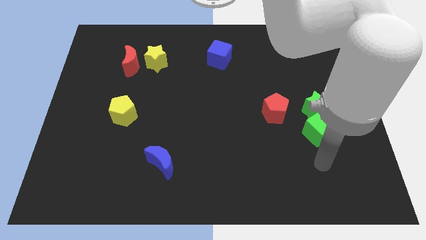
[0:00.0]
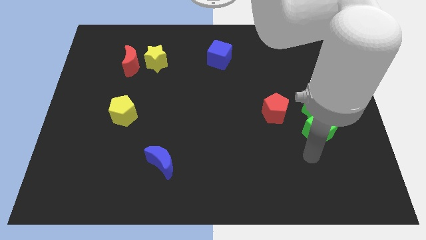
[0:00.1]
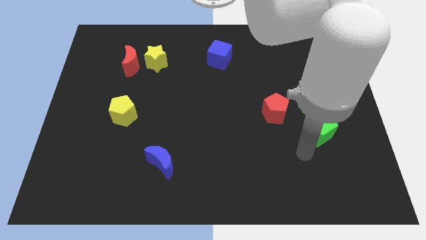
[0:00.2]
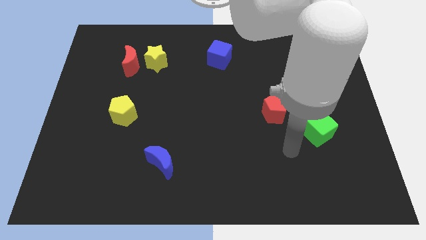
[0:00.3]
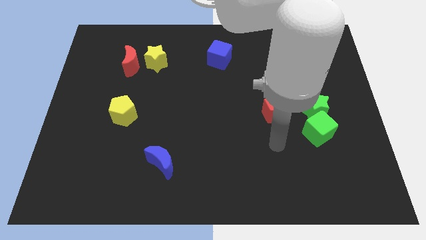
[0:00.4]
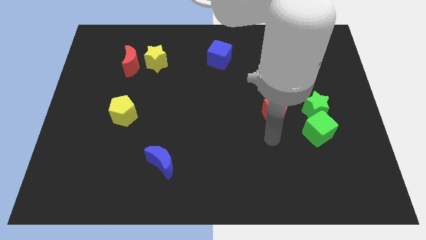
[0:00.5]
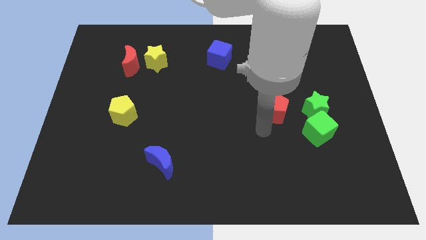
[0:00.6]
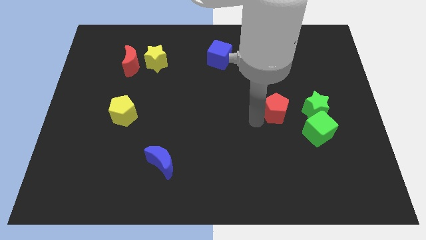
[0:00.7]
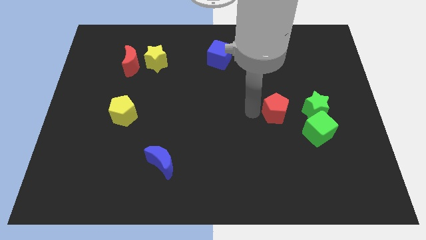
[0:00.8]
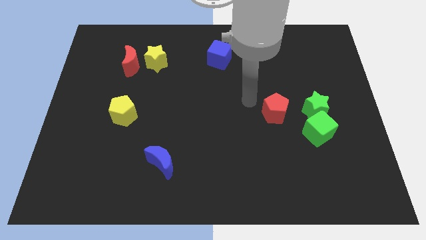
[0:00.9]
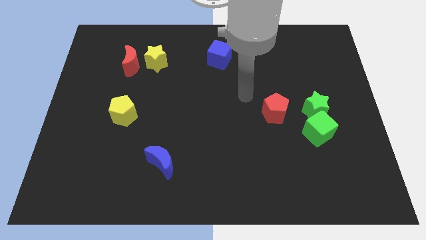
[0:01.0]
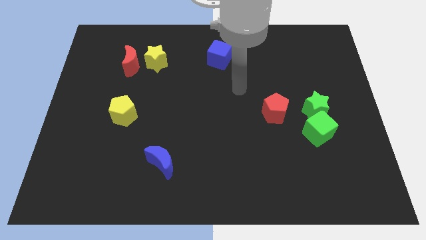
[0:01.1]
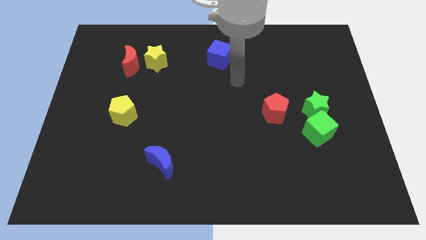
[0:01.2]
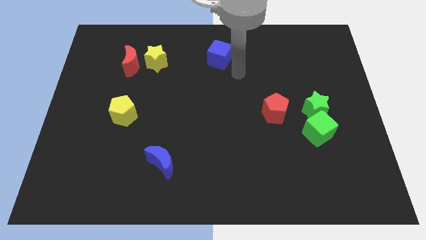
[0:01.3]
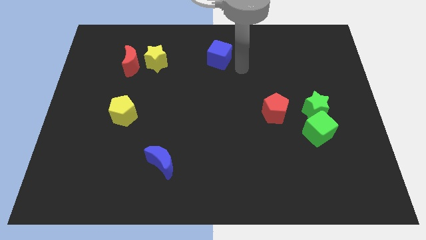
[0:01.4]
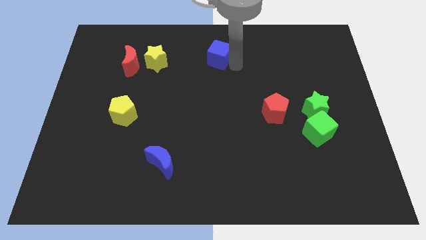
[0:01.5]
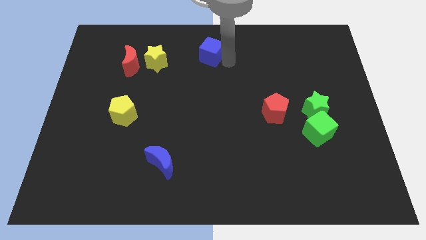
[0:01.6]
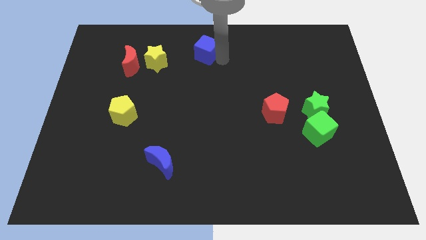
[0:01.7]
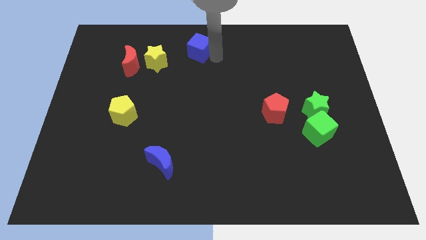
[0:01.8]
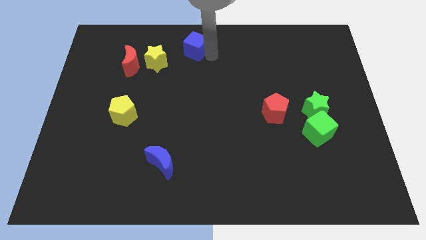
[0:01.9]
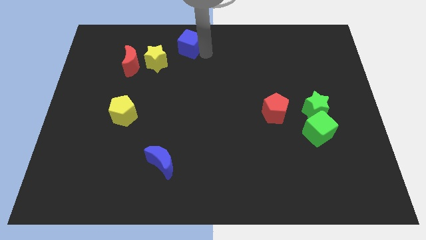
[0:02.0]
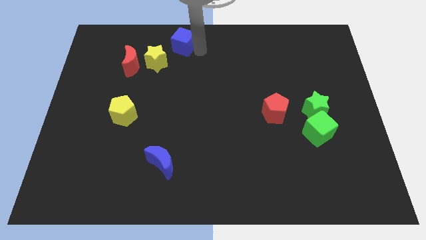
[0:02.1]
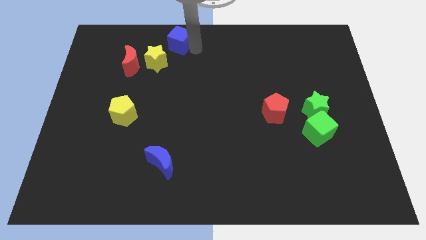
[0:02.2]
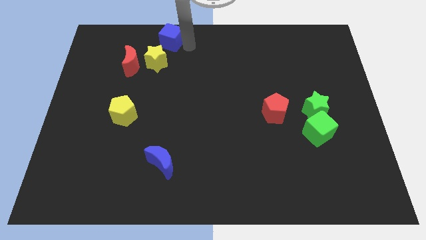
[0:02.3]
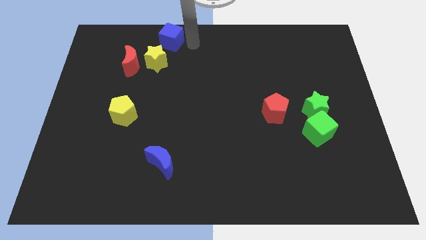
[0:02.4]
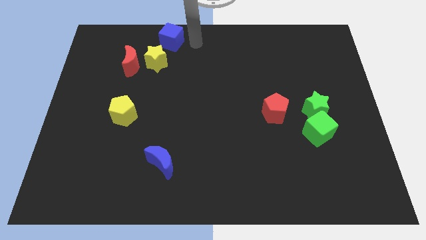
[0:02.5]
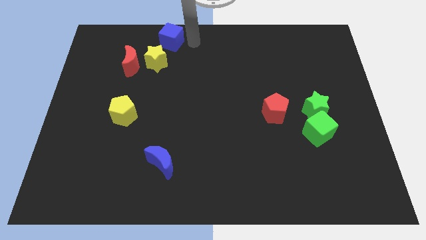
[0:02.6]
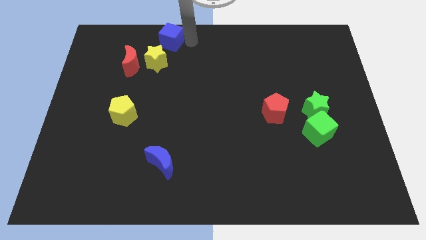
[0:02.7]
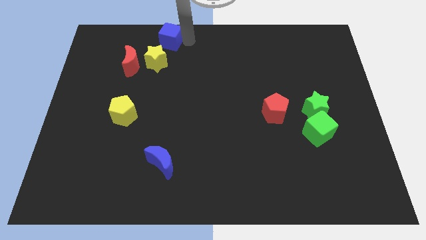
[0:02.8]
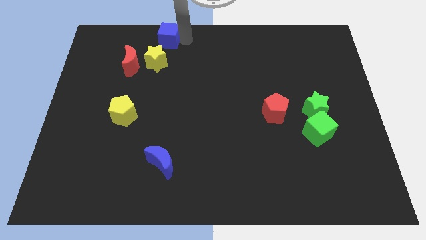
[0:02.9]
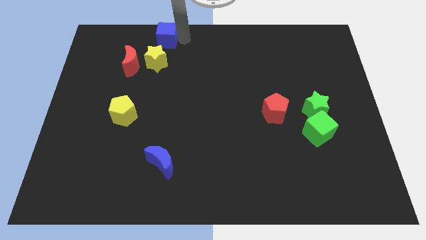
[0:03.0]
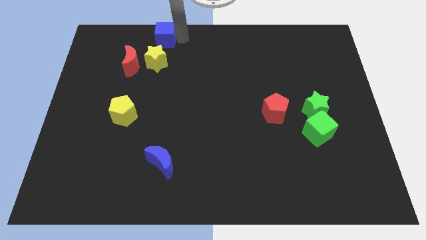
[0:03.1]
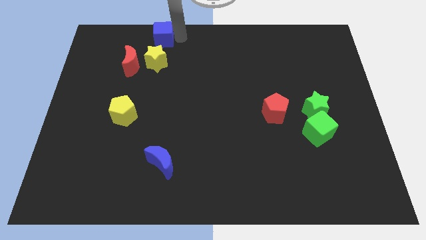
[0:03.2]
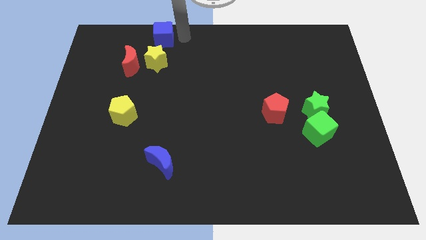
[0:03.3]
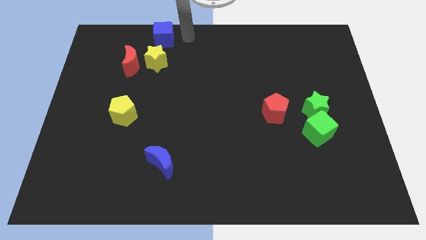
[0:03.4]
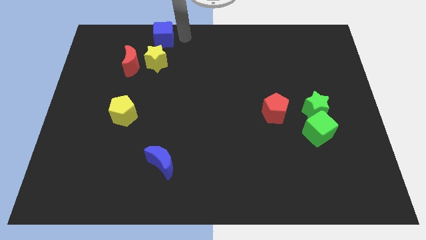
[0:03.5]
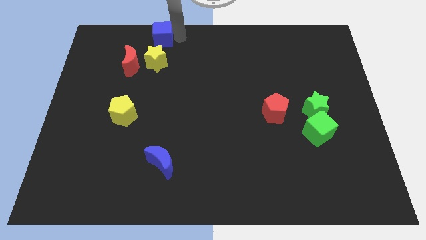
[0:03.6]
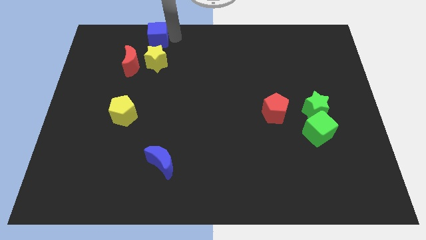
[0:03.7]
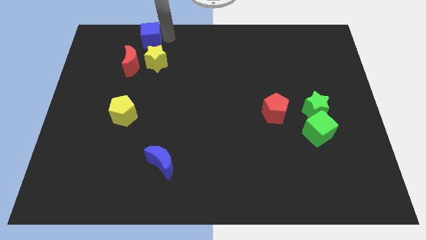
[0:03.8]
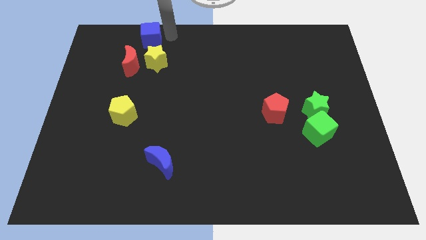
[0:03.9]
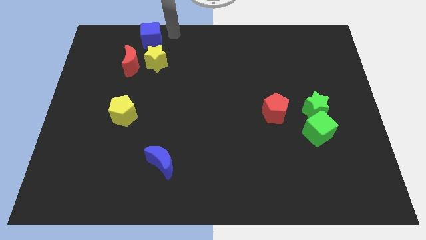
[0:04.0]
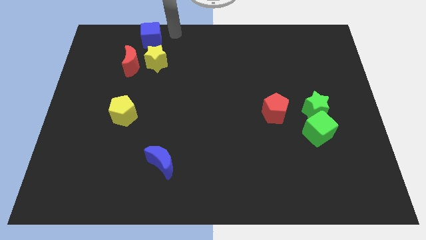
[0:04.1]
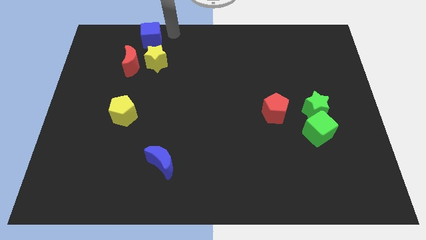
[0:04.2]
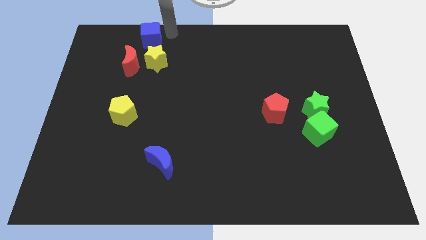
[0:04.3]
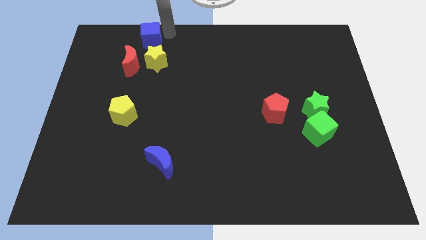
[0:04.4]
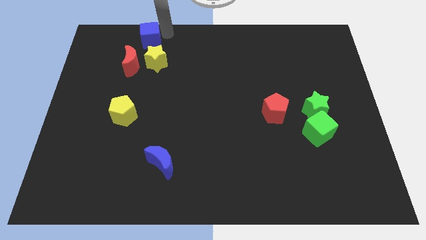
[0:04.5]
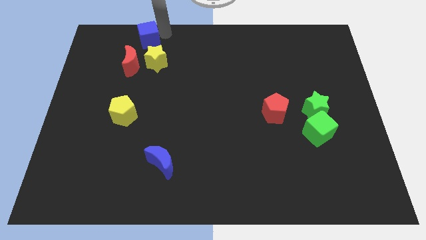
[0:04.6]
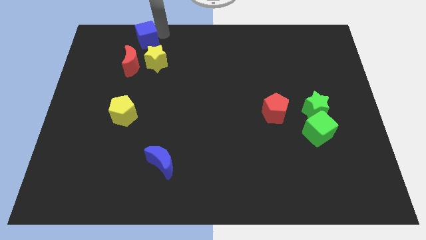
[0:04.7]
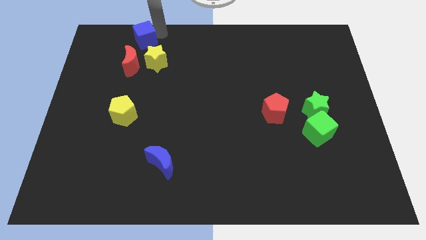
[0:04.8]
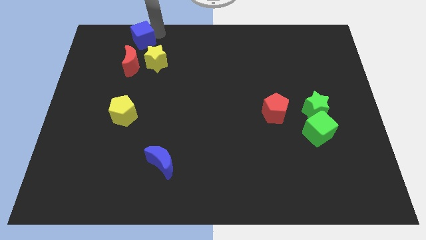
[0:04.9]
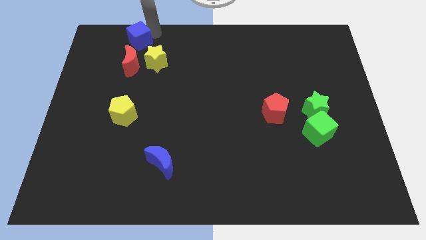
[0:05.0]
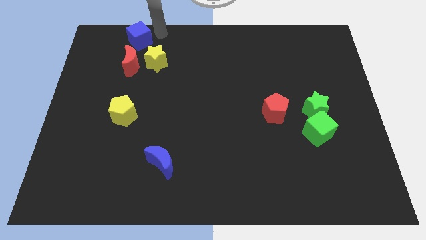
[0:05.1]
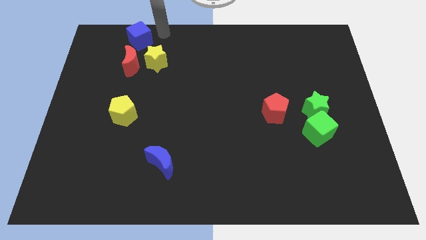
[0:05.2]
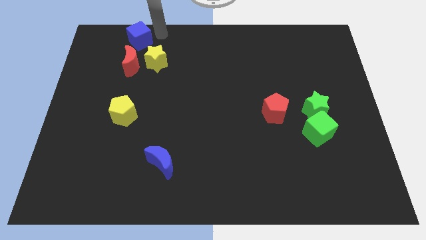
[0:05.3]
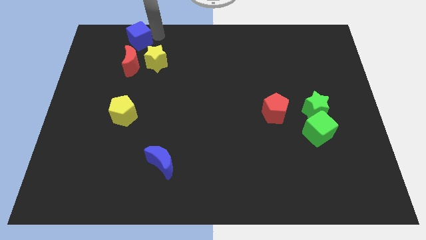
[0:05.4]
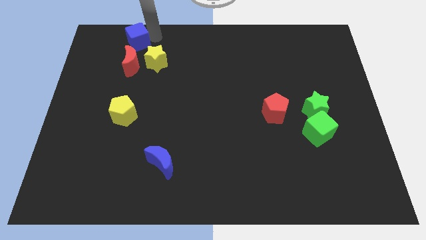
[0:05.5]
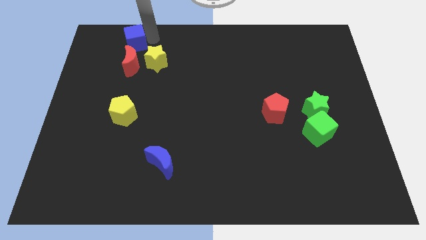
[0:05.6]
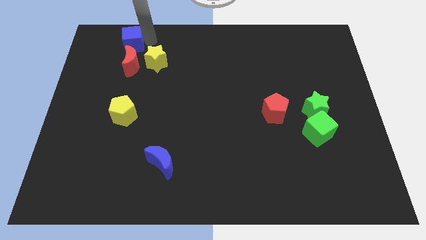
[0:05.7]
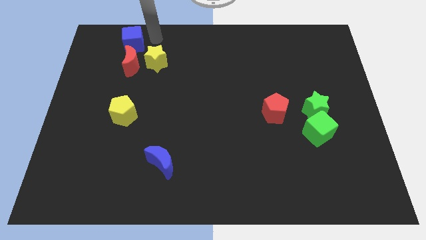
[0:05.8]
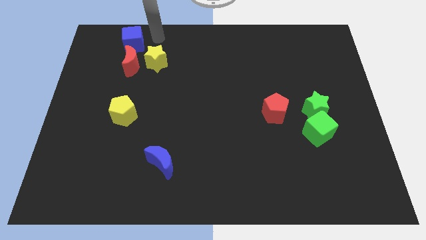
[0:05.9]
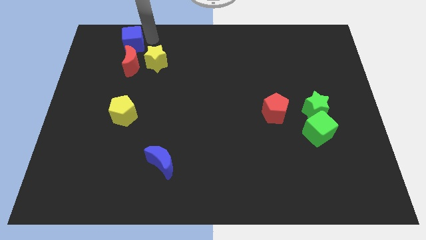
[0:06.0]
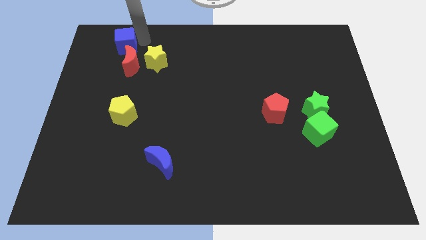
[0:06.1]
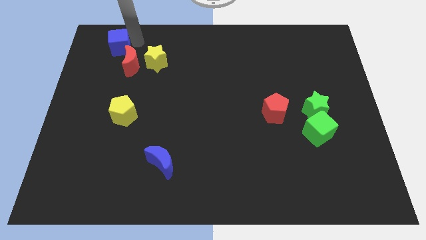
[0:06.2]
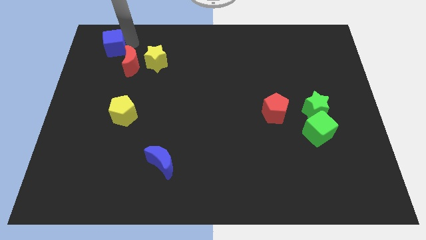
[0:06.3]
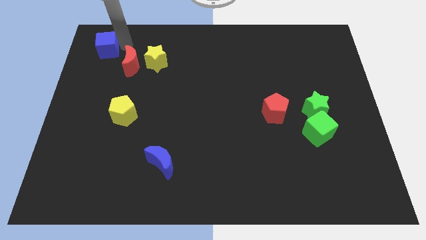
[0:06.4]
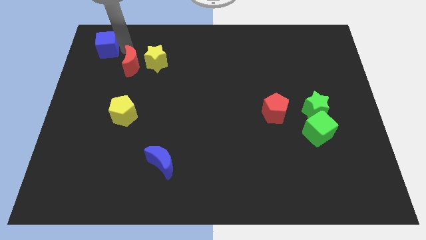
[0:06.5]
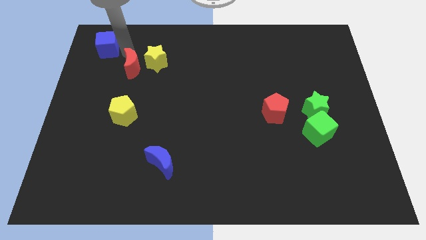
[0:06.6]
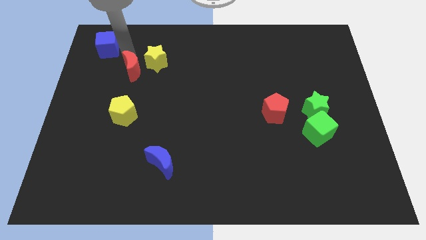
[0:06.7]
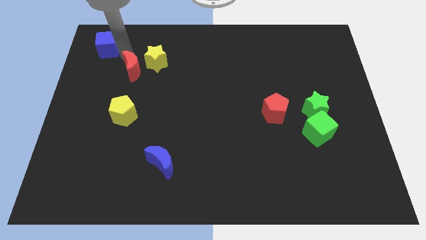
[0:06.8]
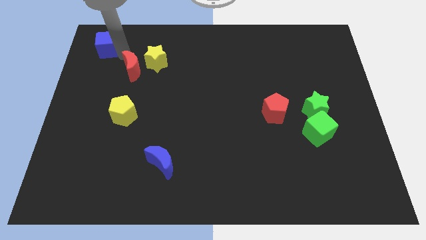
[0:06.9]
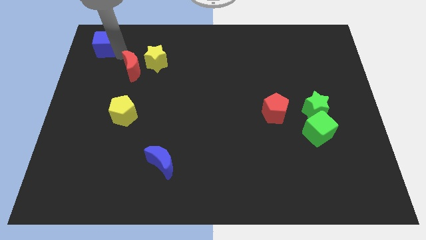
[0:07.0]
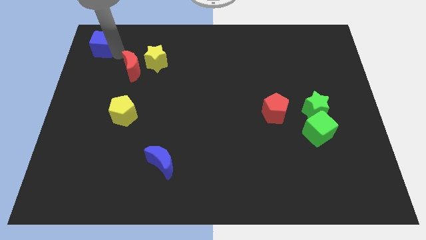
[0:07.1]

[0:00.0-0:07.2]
slide the blue cube to the top left of the board
